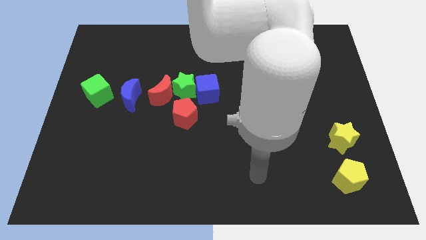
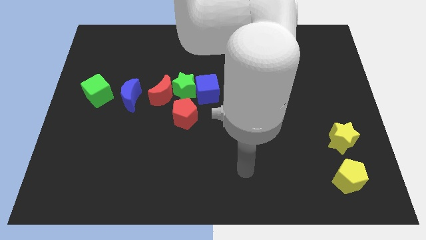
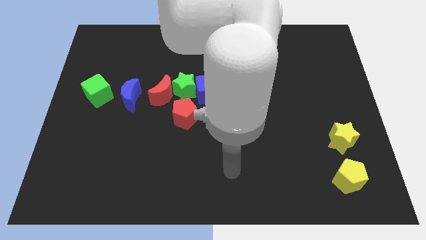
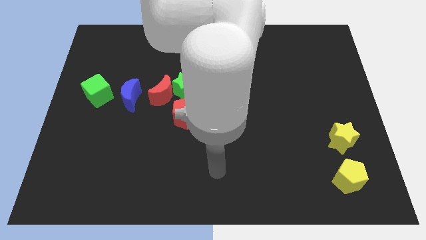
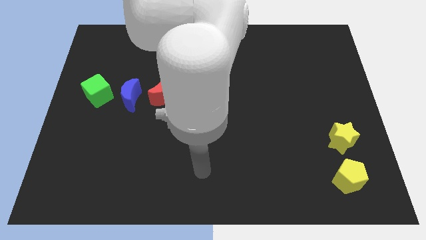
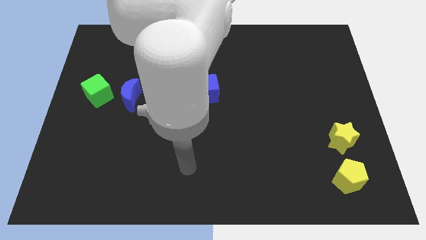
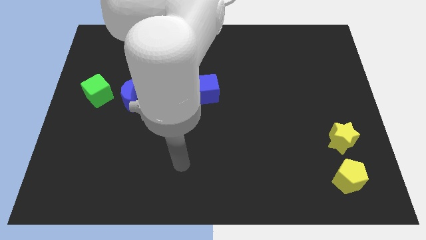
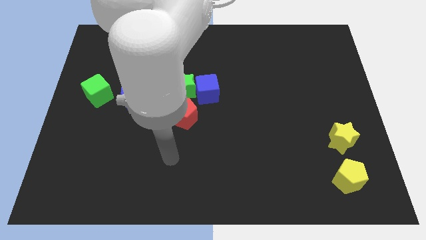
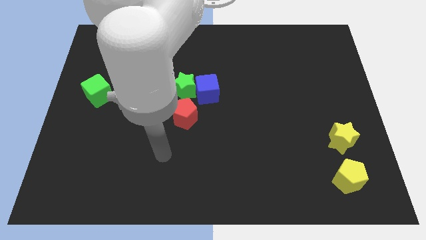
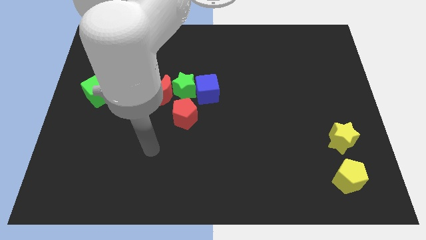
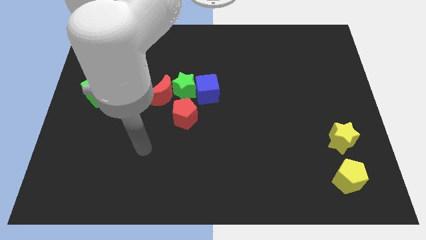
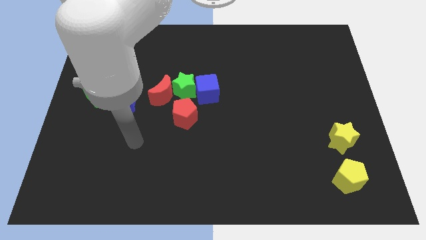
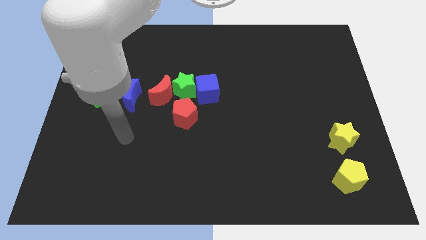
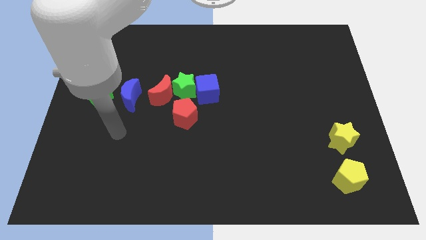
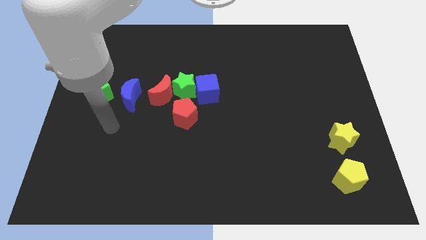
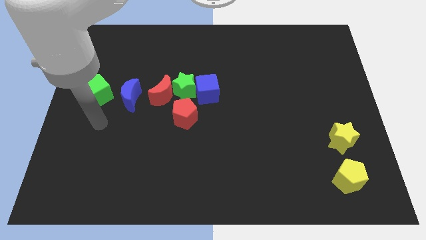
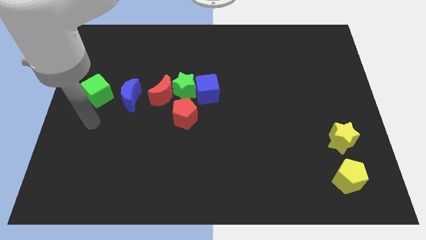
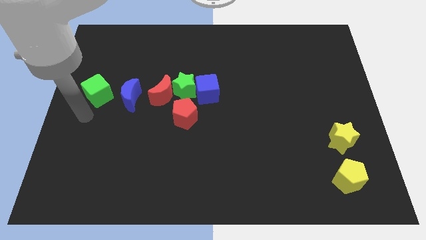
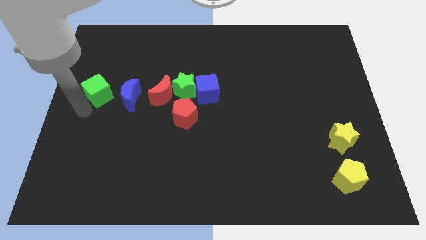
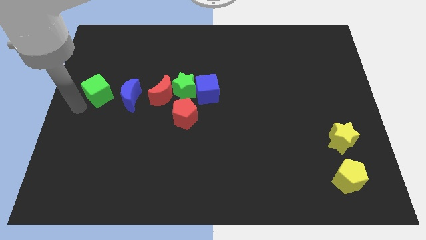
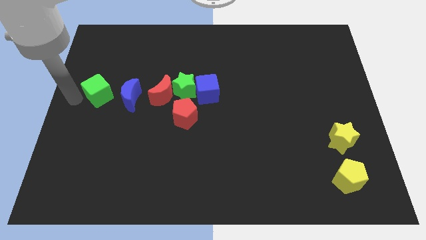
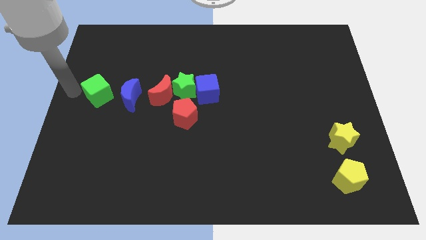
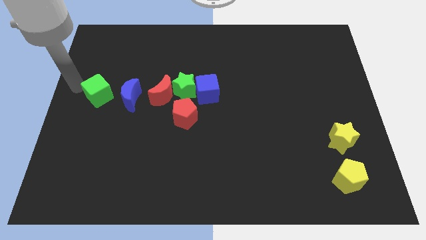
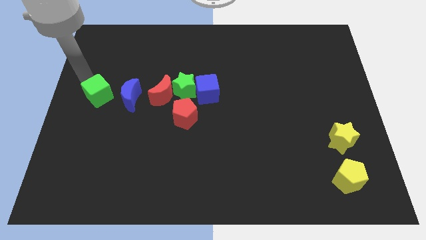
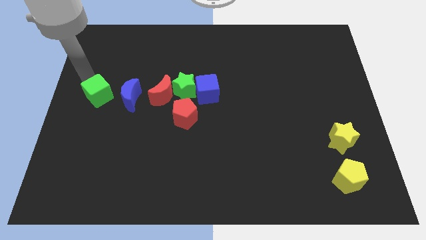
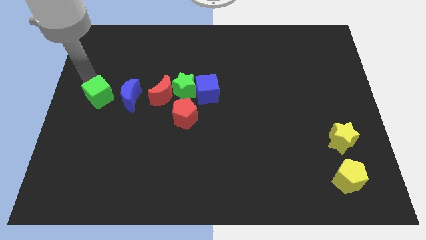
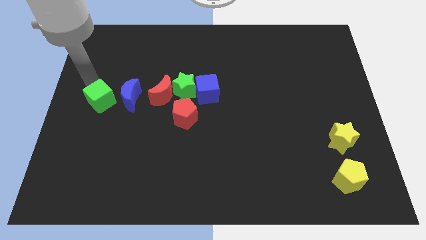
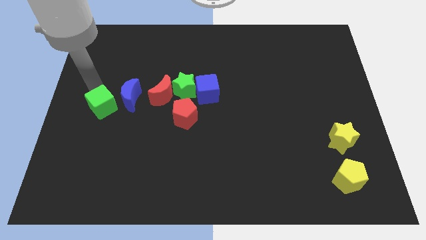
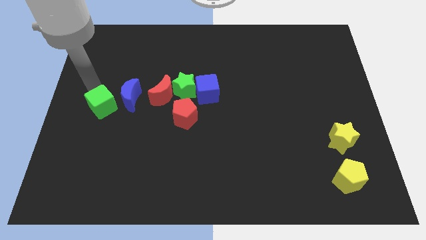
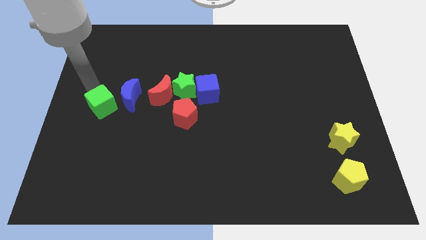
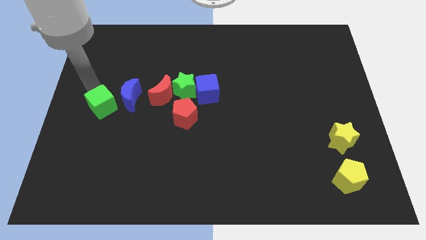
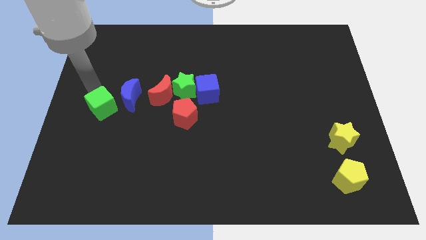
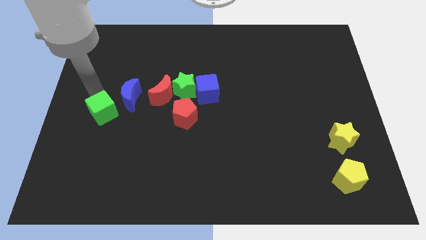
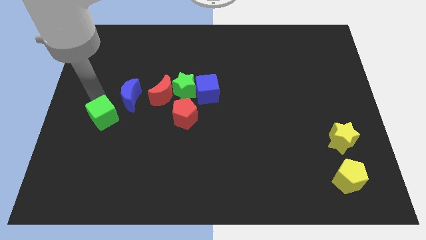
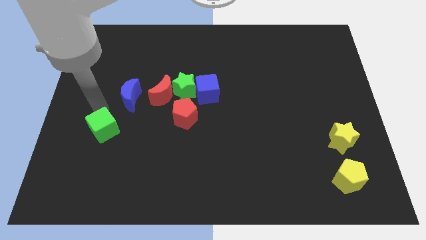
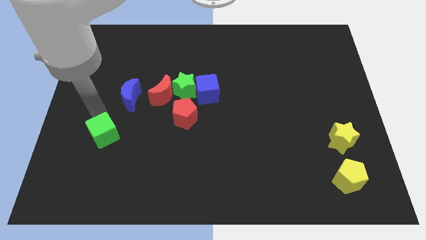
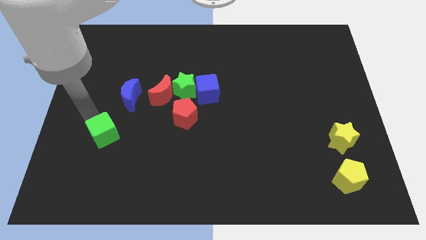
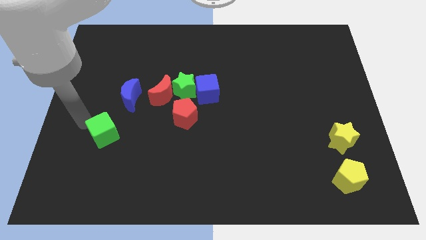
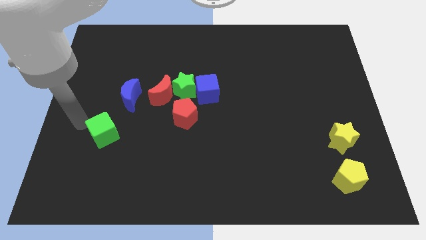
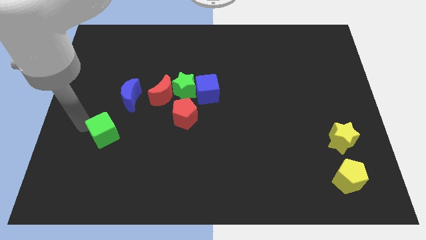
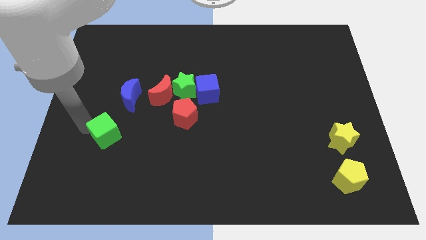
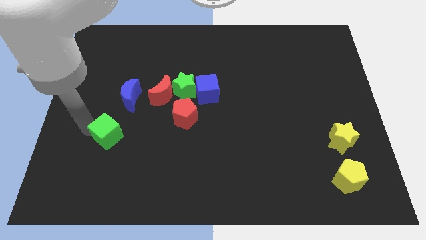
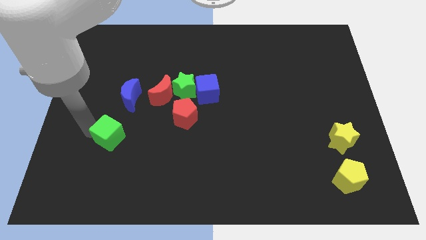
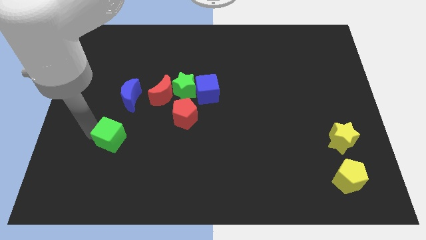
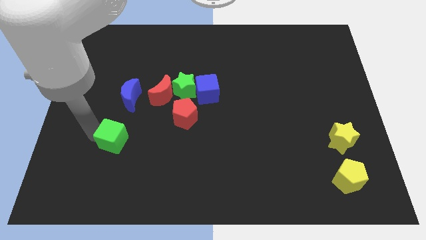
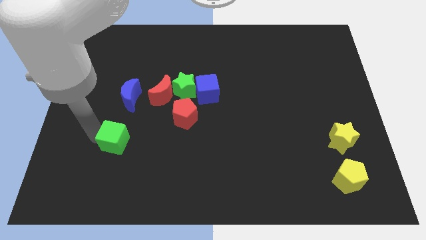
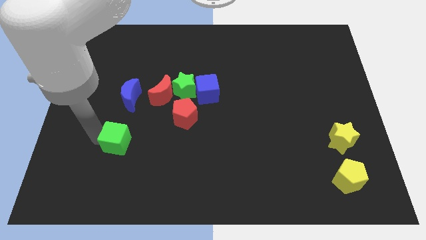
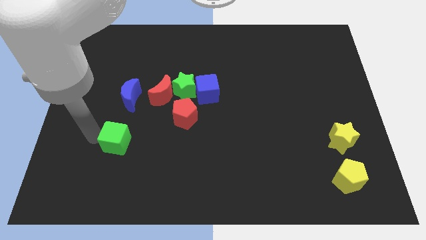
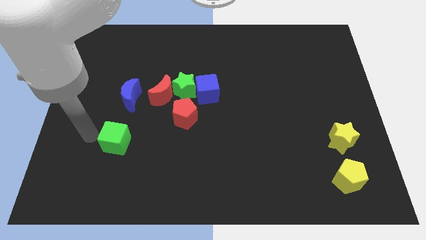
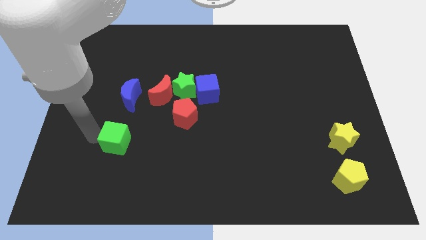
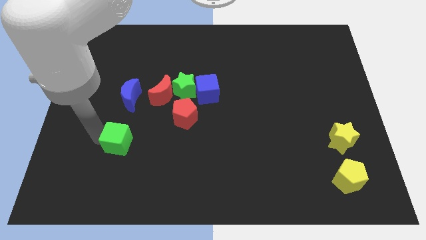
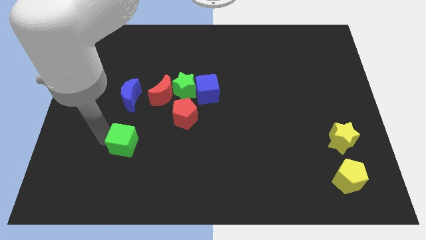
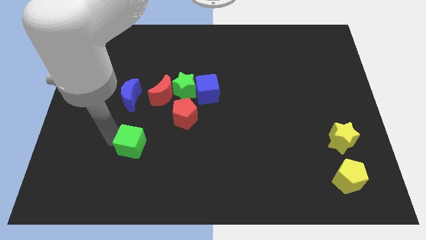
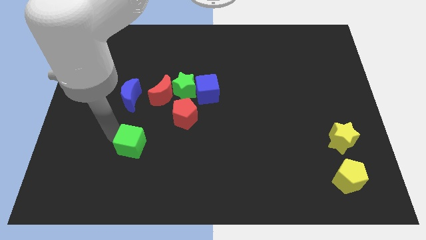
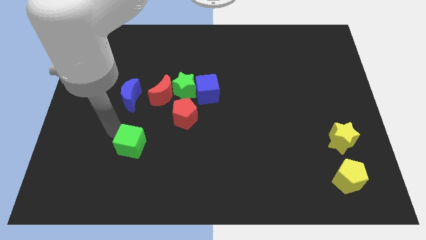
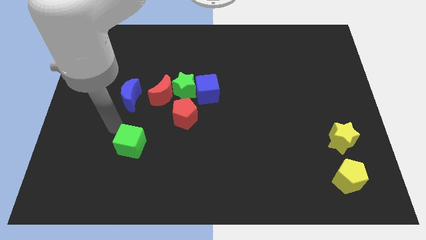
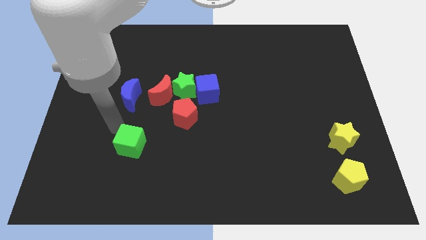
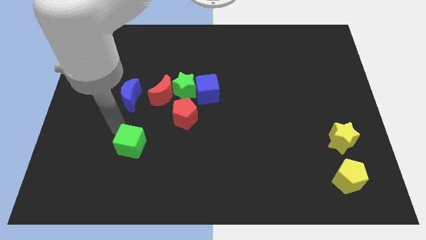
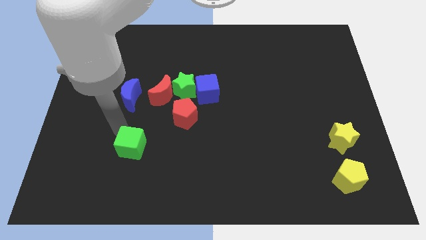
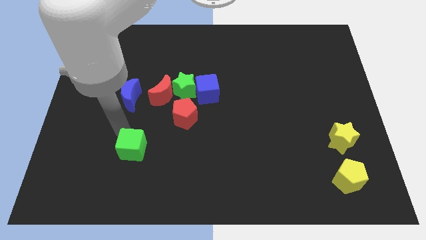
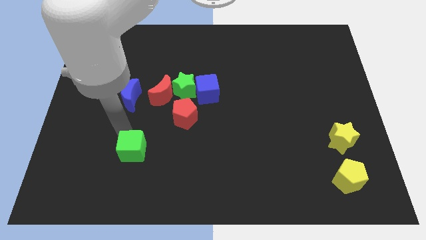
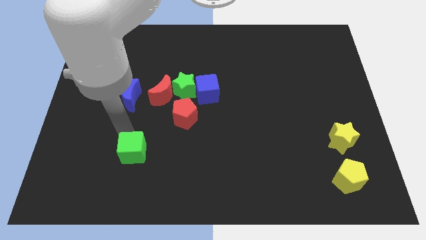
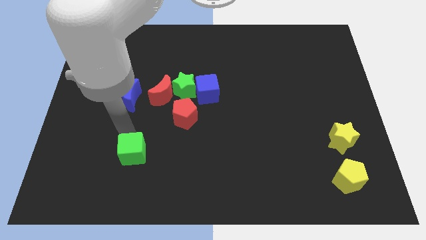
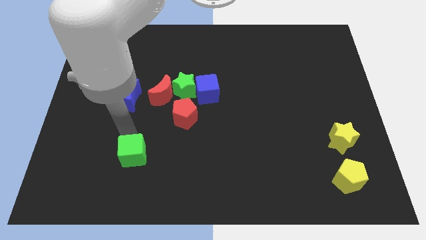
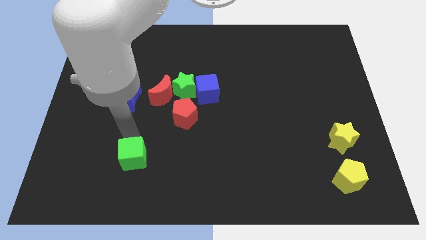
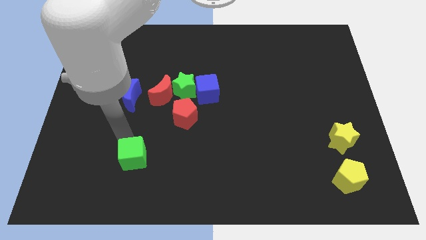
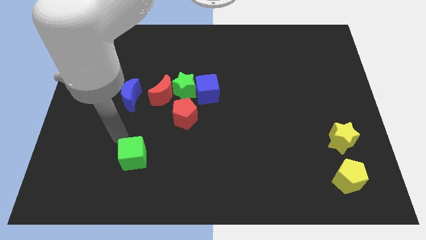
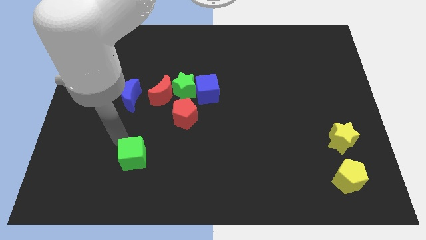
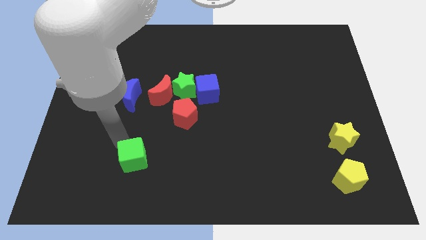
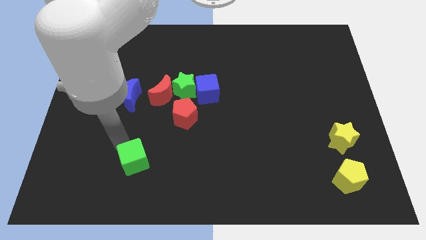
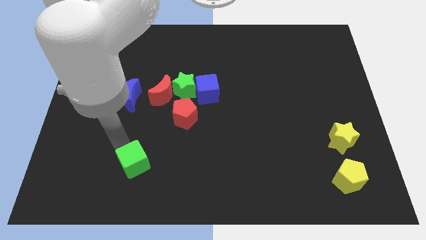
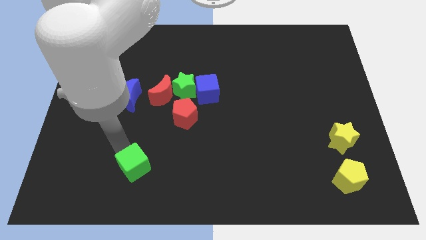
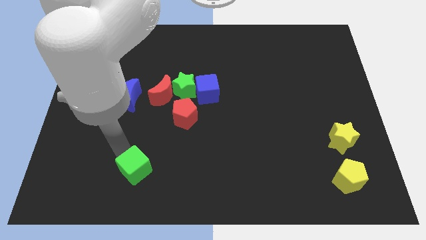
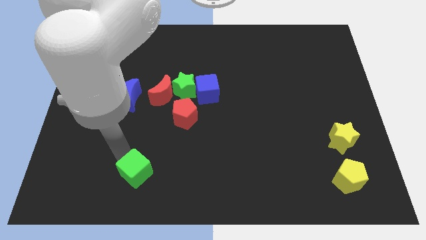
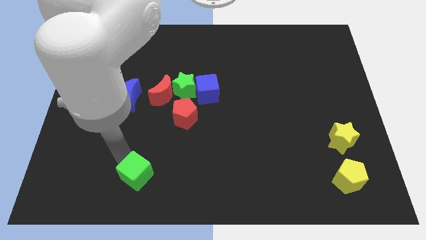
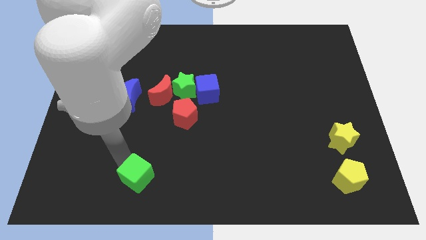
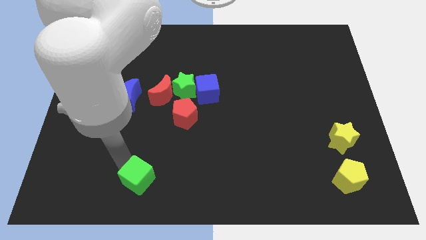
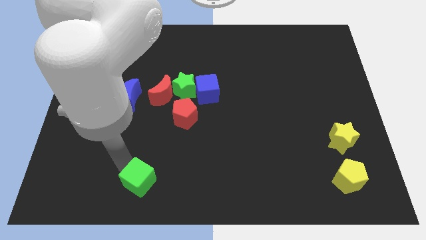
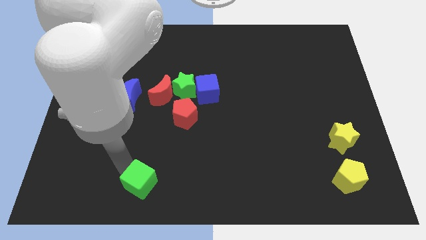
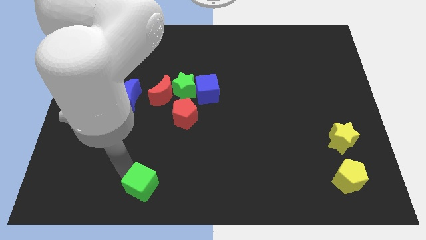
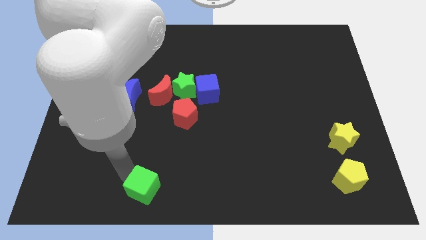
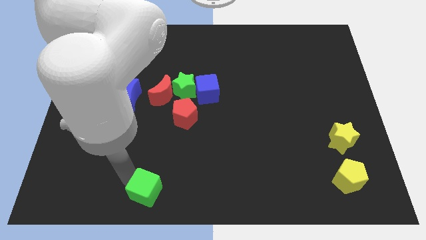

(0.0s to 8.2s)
put the green cube to the bottom
